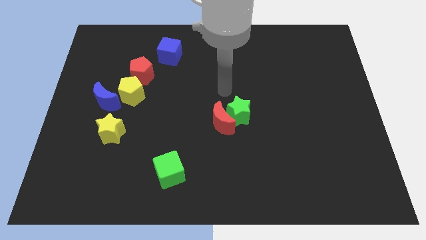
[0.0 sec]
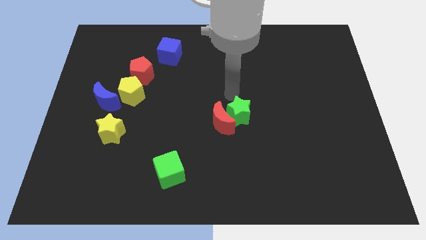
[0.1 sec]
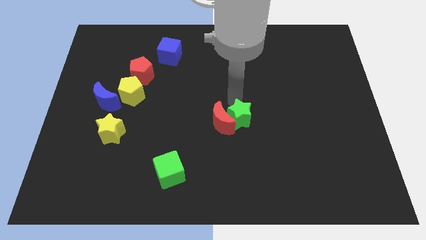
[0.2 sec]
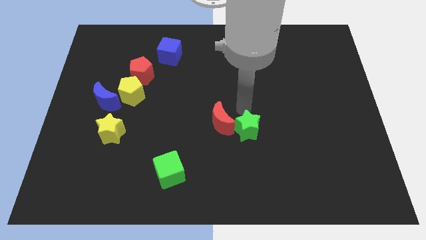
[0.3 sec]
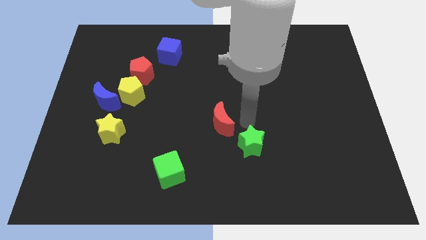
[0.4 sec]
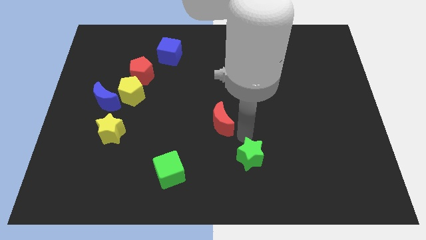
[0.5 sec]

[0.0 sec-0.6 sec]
pull the red moon apart from the green star

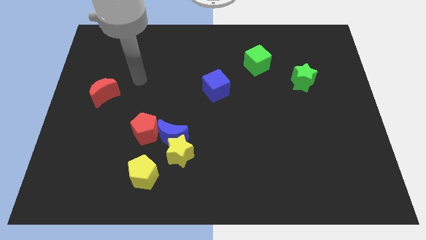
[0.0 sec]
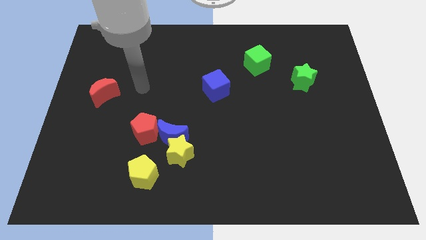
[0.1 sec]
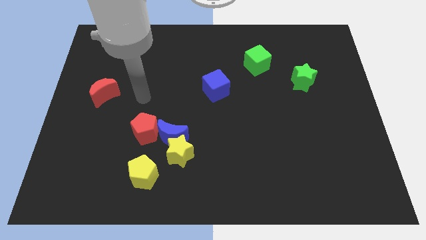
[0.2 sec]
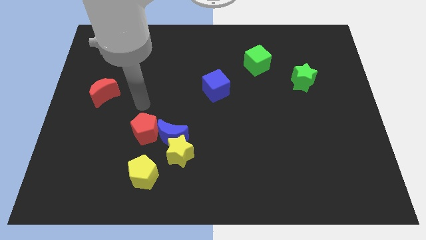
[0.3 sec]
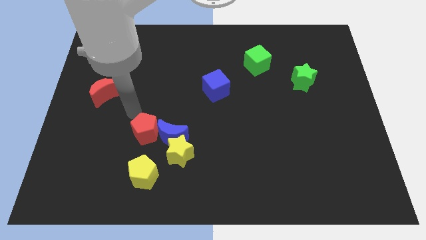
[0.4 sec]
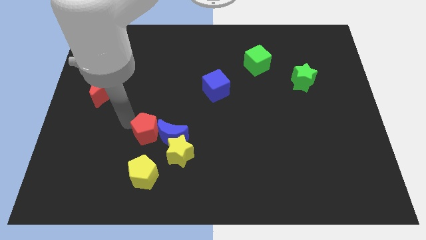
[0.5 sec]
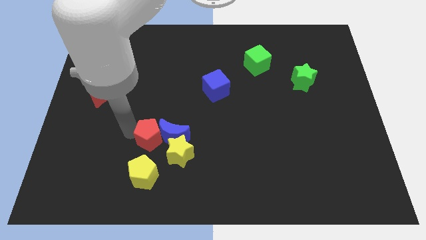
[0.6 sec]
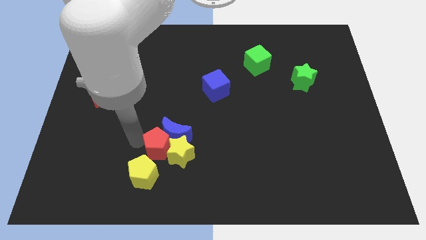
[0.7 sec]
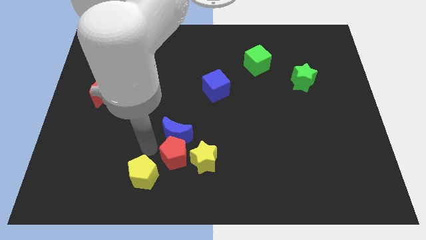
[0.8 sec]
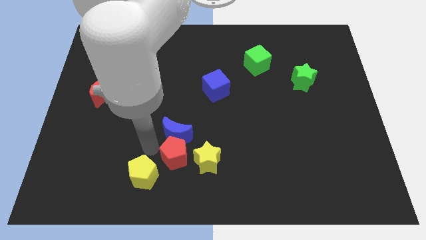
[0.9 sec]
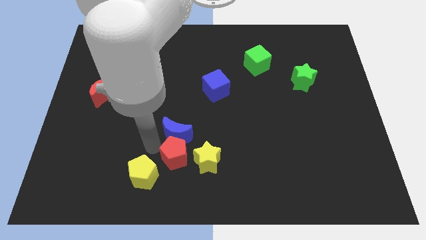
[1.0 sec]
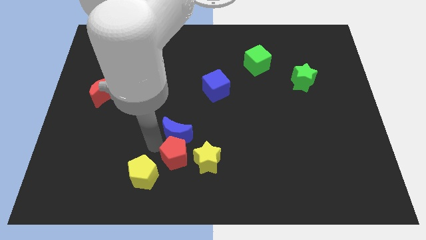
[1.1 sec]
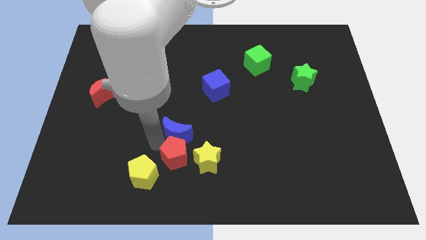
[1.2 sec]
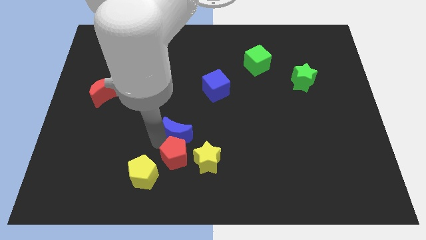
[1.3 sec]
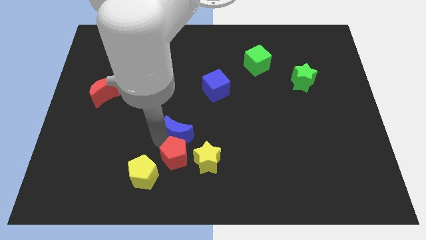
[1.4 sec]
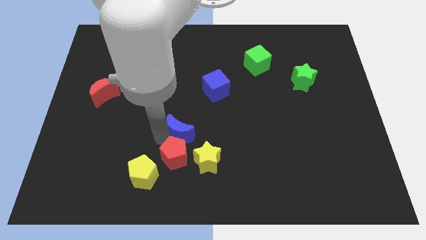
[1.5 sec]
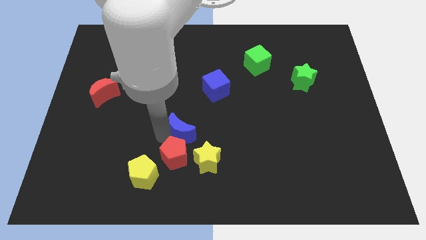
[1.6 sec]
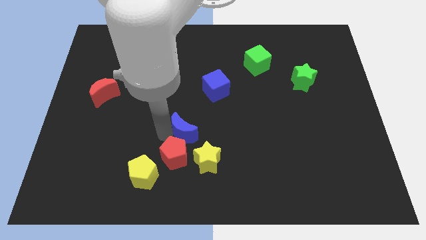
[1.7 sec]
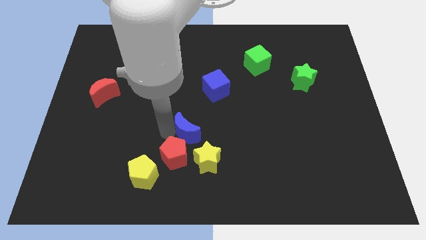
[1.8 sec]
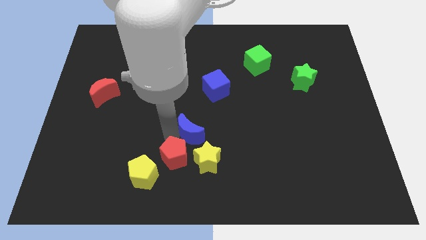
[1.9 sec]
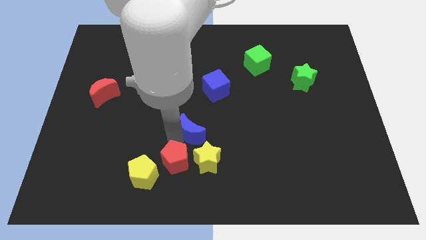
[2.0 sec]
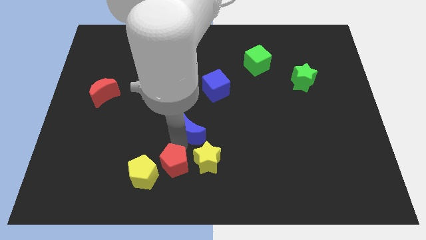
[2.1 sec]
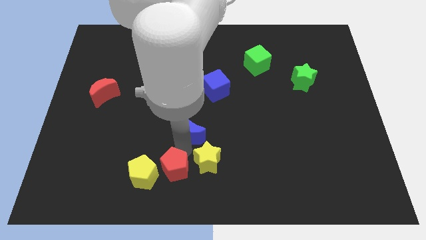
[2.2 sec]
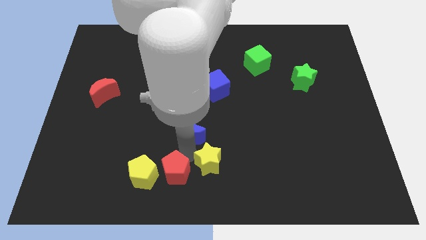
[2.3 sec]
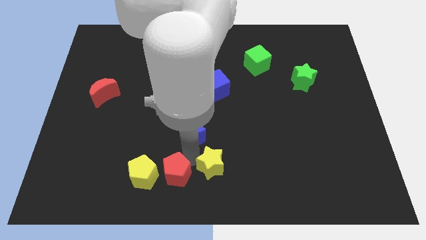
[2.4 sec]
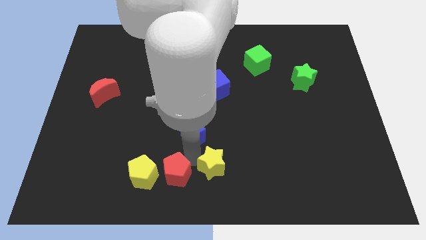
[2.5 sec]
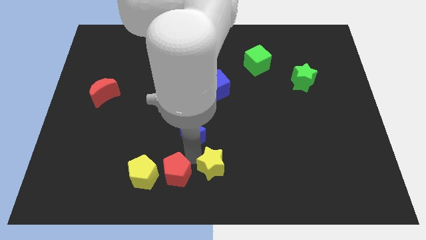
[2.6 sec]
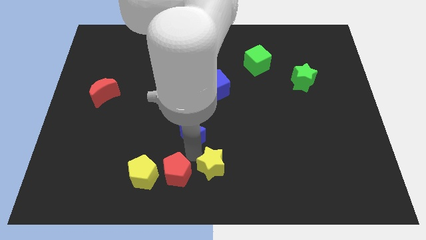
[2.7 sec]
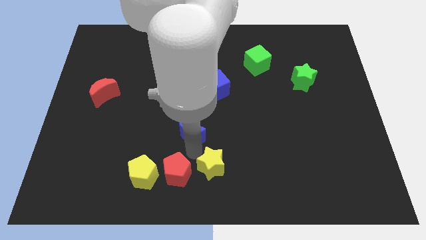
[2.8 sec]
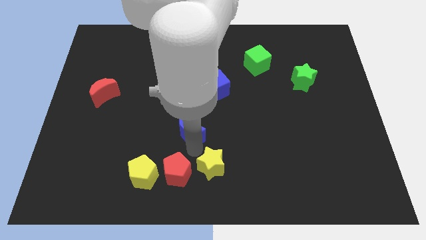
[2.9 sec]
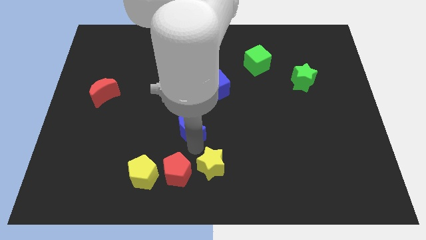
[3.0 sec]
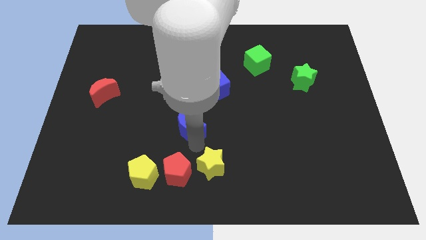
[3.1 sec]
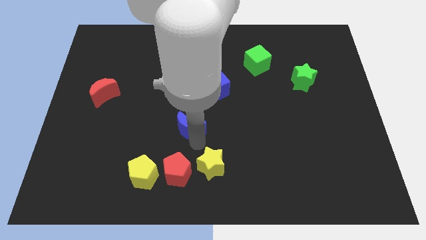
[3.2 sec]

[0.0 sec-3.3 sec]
move the blue moon away from the yellow star and red pentagon

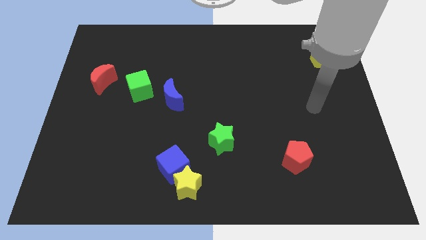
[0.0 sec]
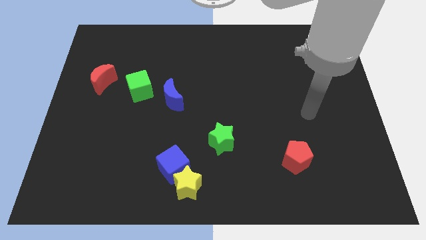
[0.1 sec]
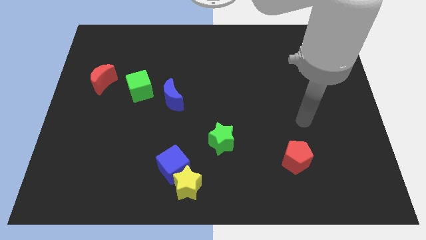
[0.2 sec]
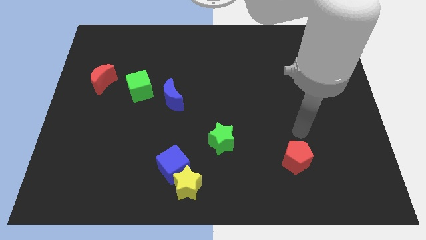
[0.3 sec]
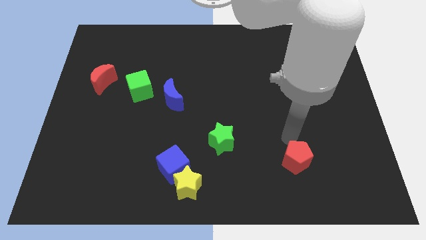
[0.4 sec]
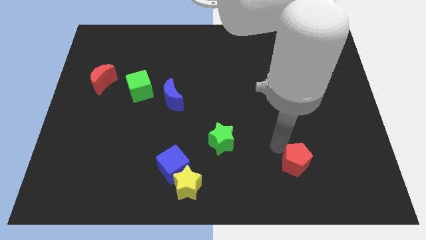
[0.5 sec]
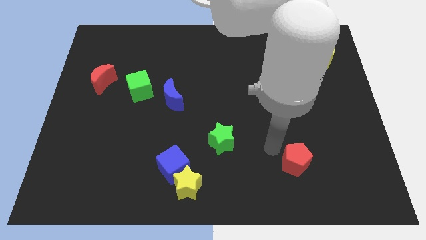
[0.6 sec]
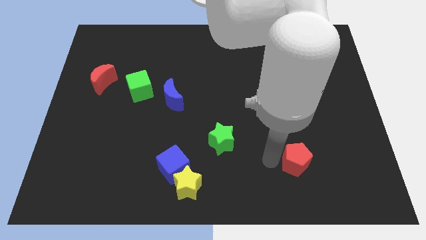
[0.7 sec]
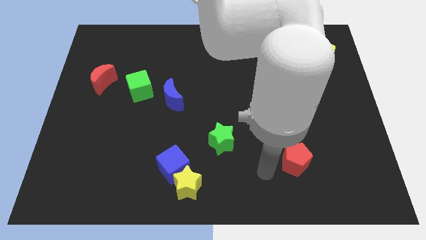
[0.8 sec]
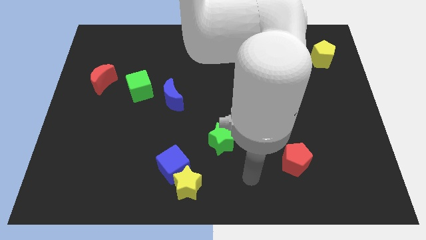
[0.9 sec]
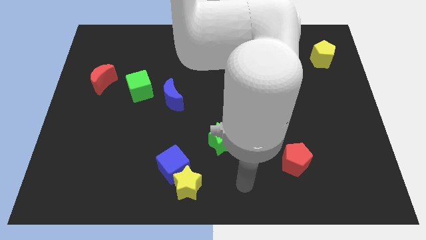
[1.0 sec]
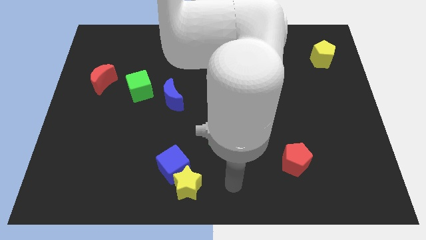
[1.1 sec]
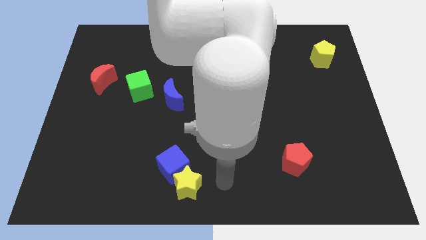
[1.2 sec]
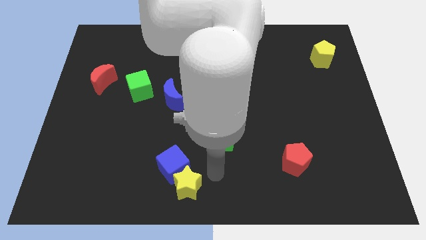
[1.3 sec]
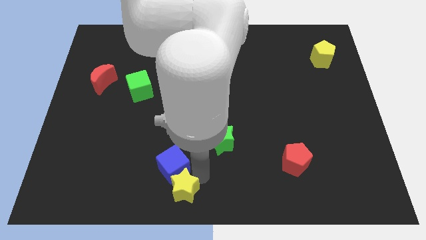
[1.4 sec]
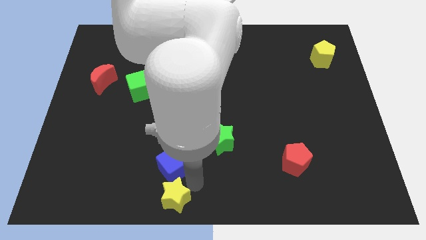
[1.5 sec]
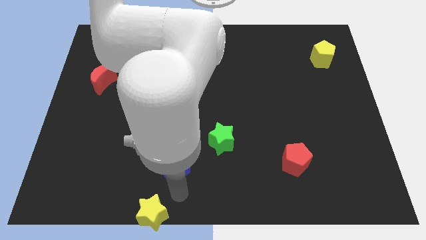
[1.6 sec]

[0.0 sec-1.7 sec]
move the blue cube away from the yellow star

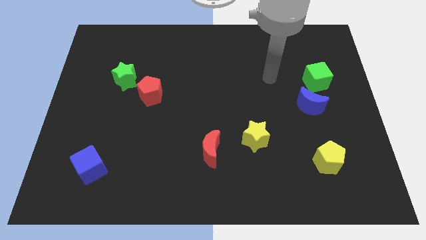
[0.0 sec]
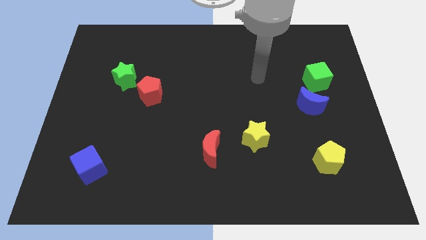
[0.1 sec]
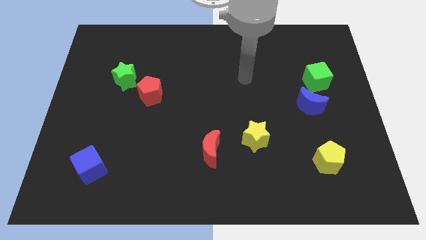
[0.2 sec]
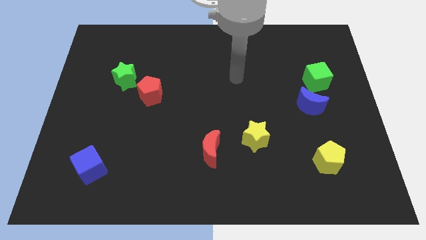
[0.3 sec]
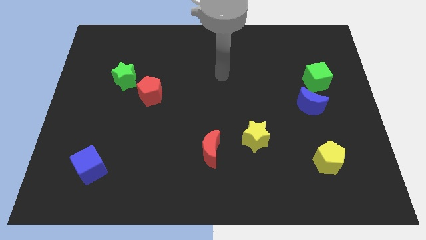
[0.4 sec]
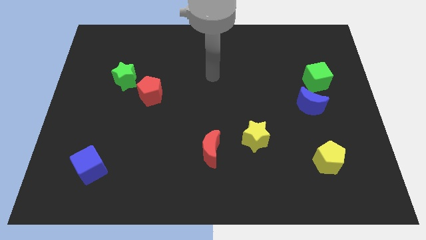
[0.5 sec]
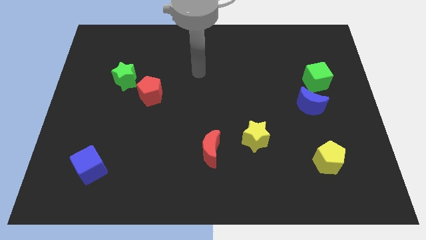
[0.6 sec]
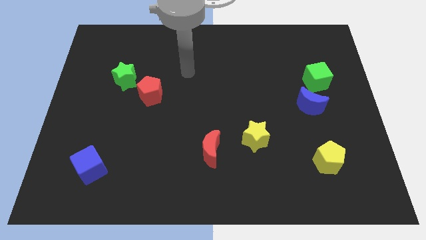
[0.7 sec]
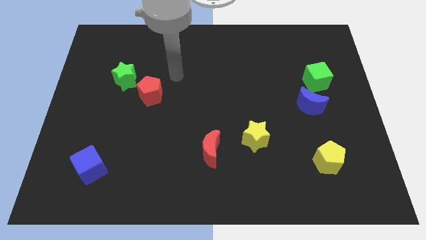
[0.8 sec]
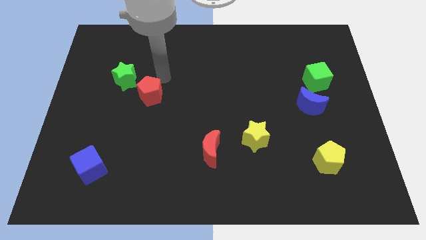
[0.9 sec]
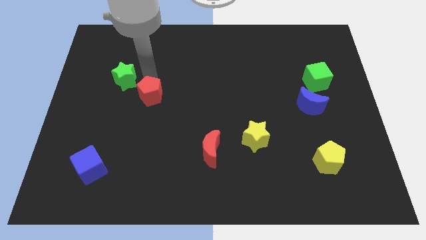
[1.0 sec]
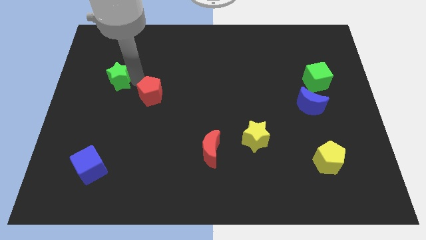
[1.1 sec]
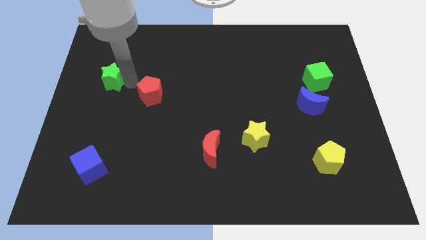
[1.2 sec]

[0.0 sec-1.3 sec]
move the red pentagon away from the green star

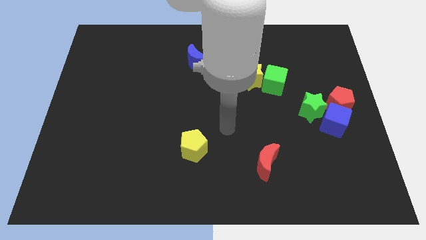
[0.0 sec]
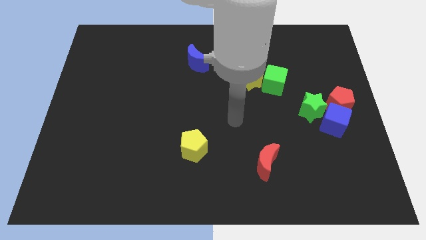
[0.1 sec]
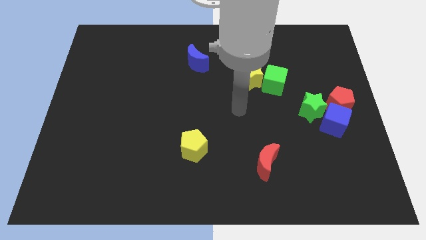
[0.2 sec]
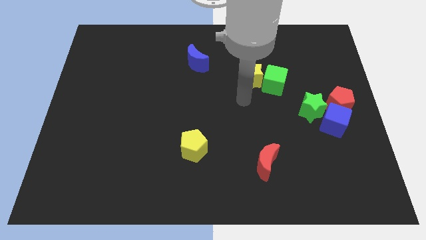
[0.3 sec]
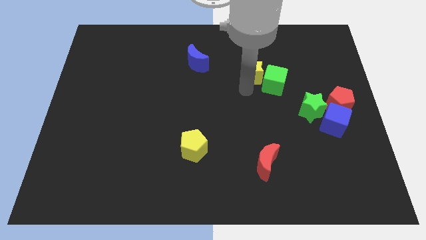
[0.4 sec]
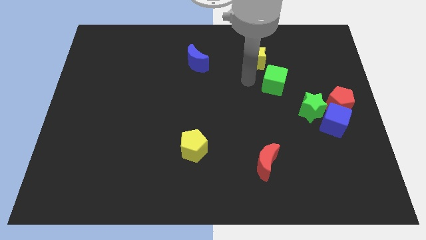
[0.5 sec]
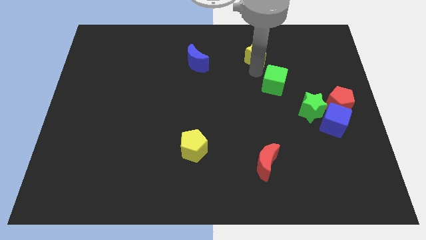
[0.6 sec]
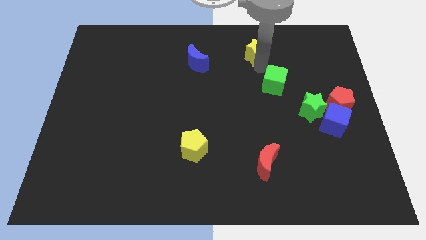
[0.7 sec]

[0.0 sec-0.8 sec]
pull the green cube apart from the yellow star

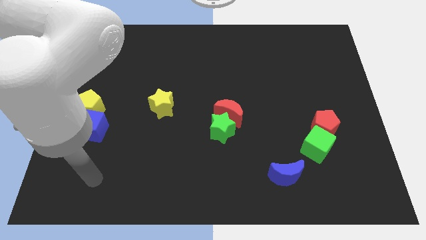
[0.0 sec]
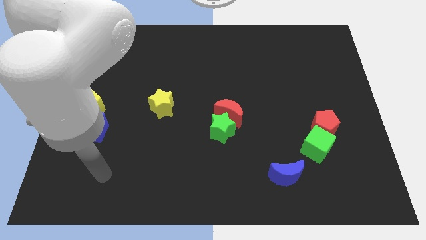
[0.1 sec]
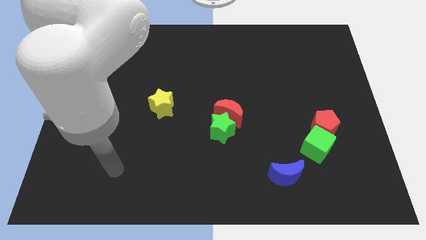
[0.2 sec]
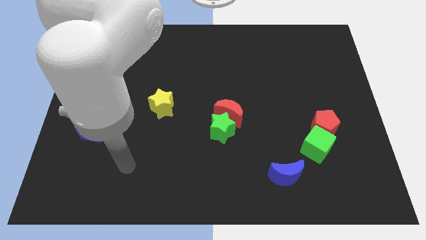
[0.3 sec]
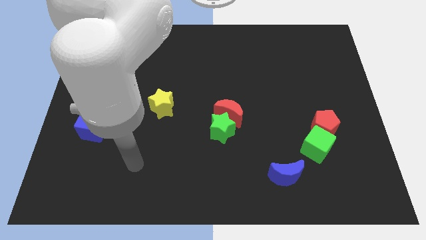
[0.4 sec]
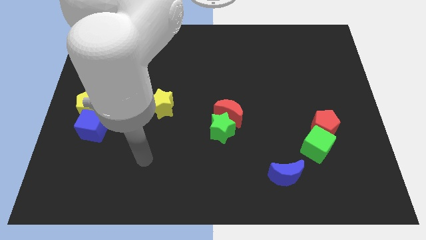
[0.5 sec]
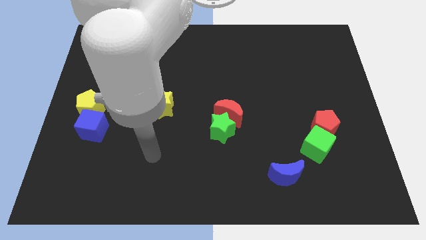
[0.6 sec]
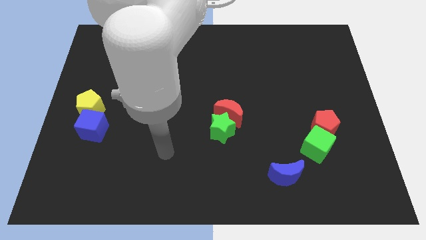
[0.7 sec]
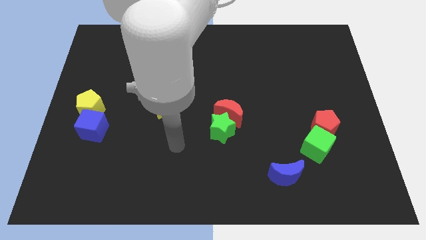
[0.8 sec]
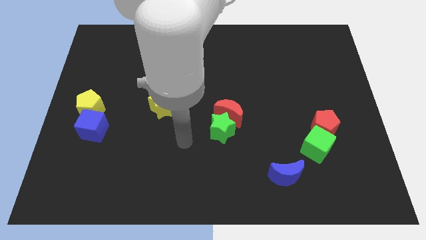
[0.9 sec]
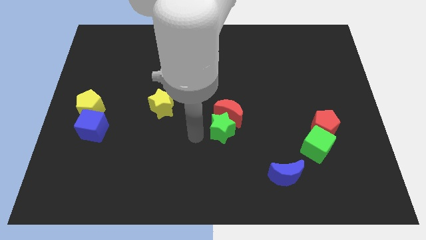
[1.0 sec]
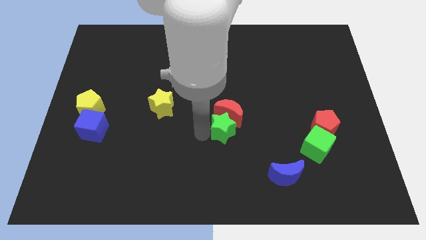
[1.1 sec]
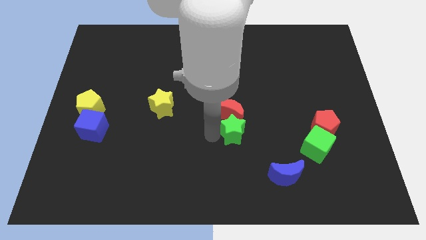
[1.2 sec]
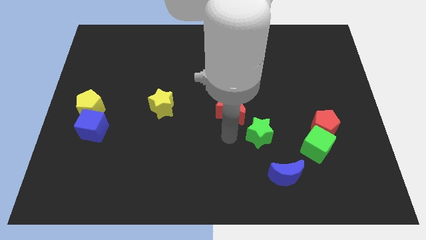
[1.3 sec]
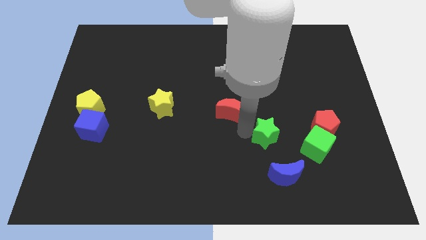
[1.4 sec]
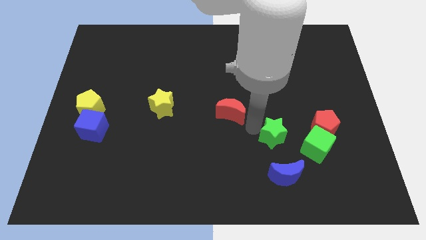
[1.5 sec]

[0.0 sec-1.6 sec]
separate the red moon from the green star
